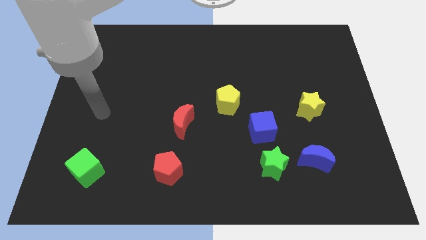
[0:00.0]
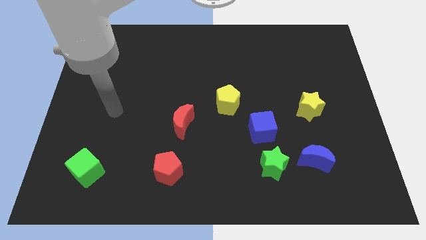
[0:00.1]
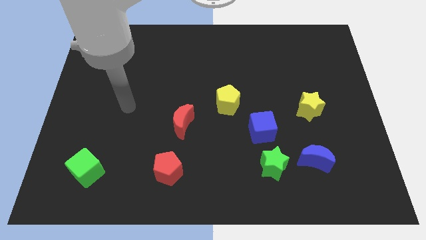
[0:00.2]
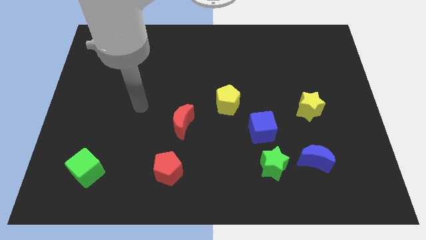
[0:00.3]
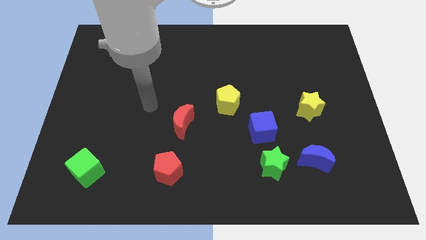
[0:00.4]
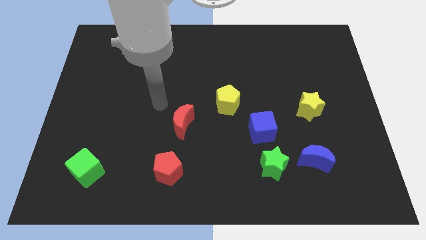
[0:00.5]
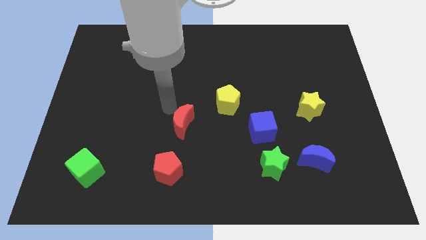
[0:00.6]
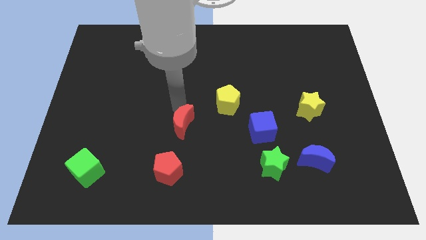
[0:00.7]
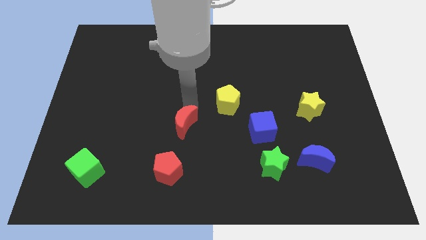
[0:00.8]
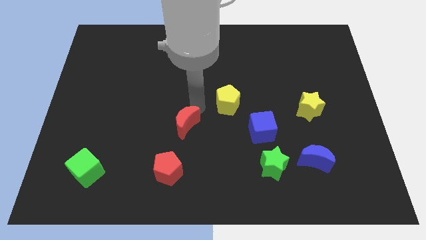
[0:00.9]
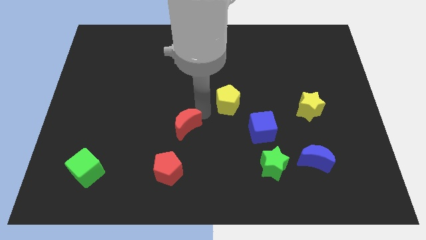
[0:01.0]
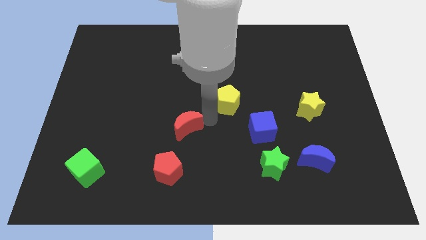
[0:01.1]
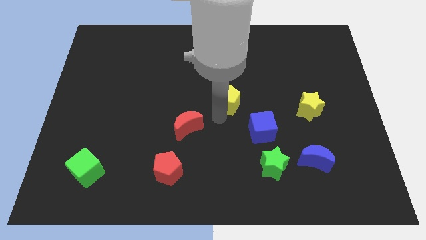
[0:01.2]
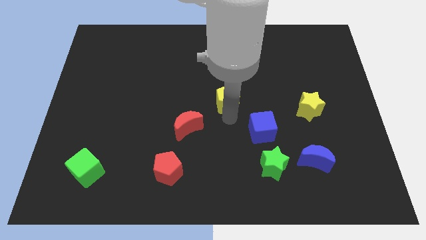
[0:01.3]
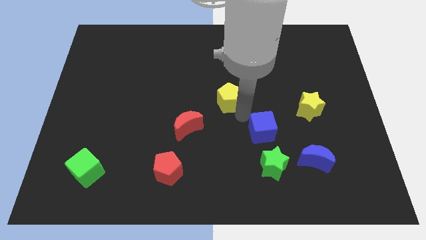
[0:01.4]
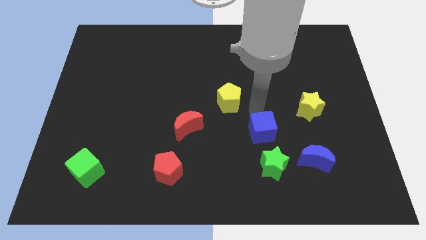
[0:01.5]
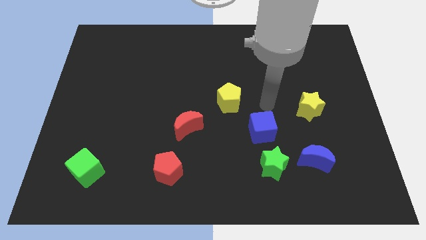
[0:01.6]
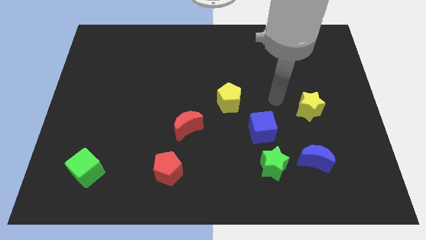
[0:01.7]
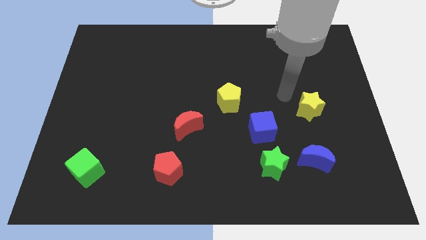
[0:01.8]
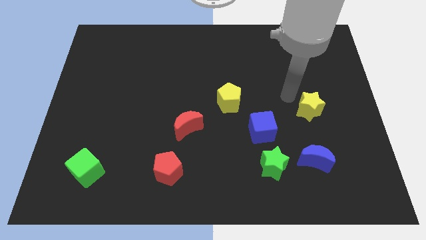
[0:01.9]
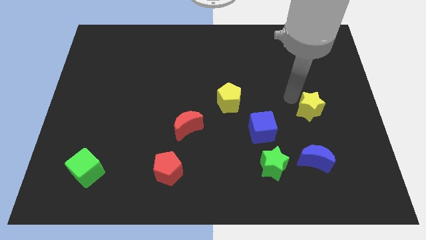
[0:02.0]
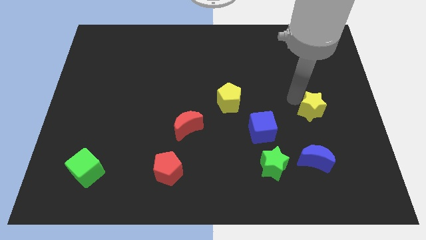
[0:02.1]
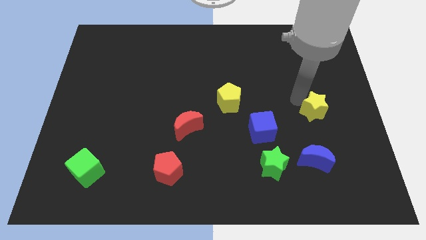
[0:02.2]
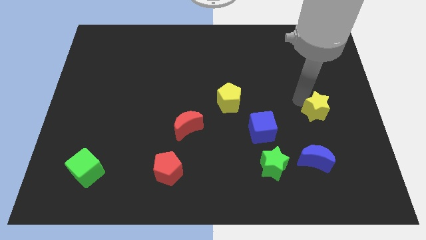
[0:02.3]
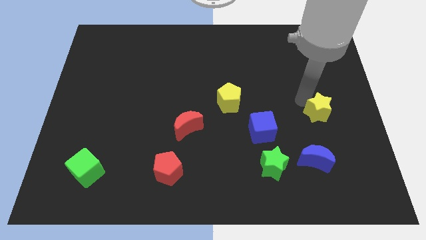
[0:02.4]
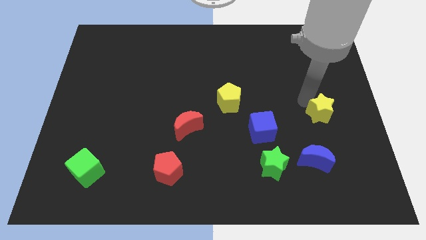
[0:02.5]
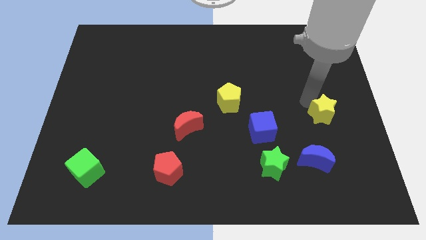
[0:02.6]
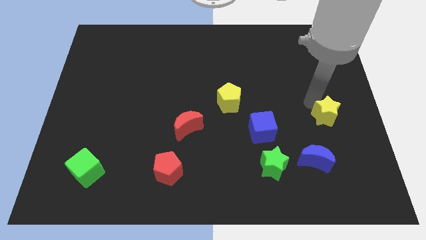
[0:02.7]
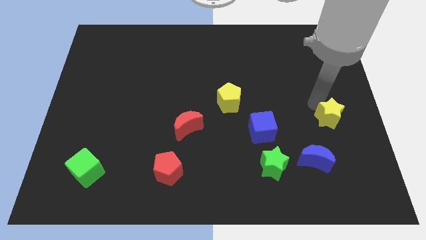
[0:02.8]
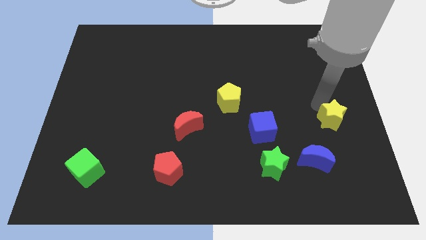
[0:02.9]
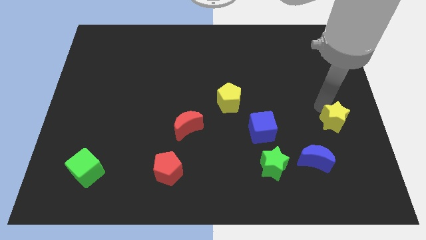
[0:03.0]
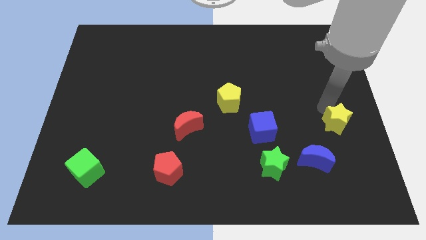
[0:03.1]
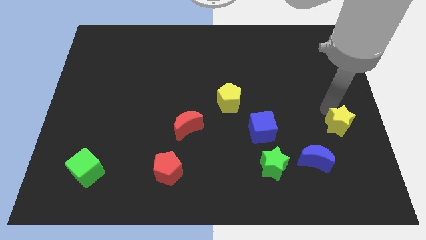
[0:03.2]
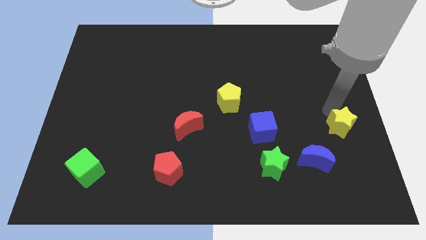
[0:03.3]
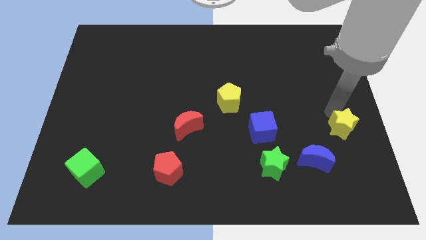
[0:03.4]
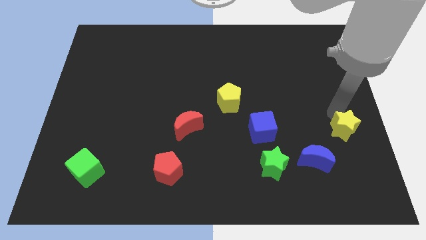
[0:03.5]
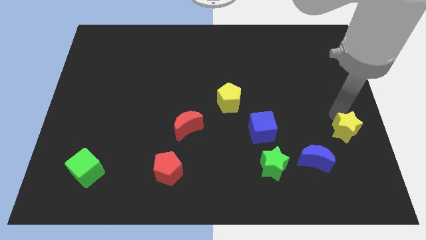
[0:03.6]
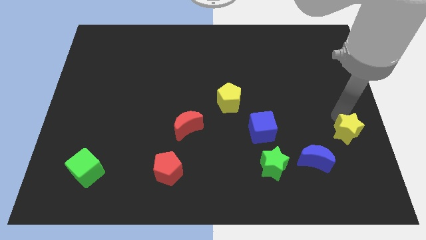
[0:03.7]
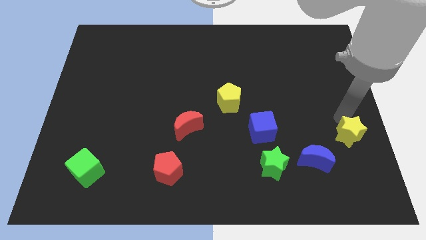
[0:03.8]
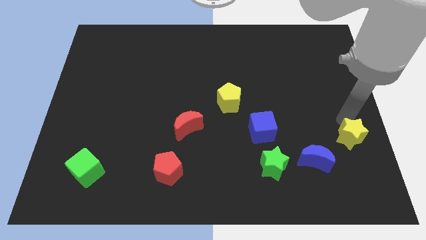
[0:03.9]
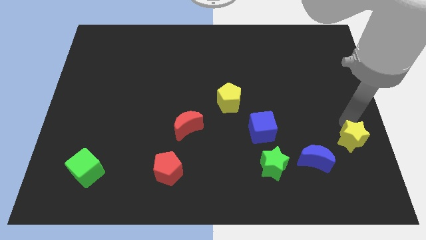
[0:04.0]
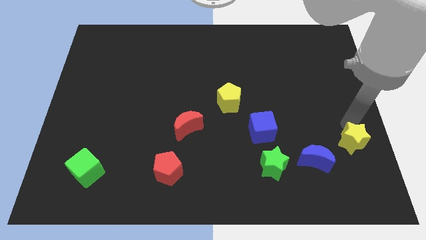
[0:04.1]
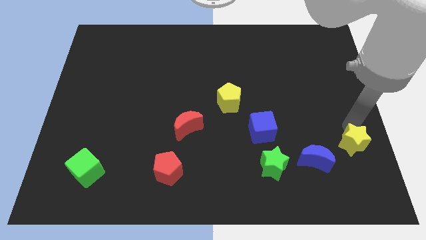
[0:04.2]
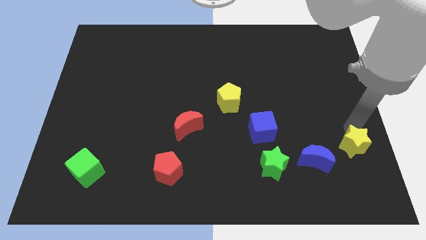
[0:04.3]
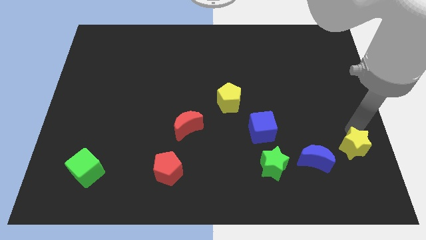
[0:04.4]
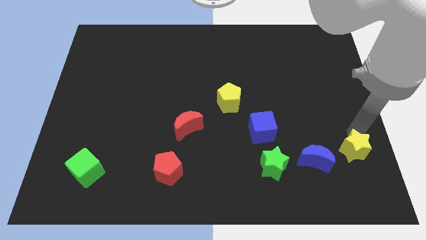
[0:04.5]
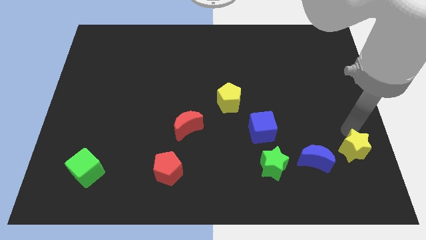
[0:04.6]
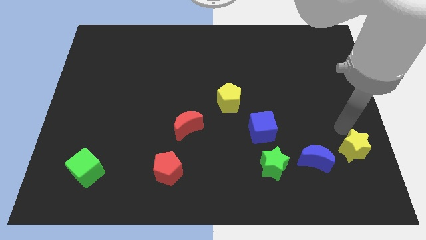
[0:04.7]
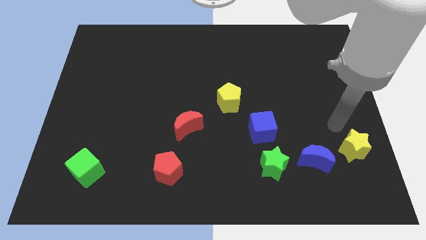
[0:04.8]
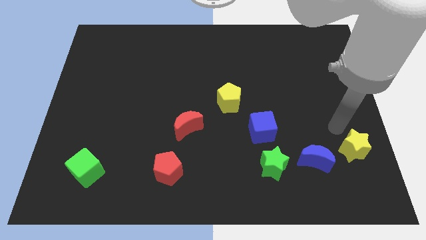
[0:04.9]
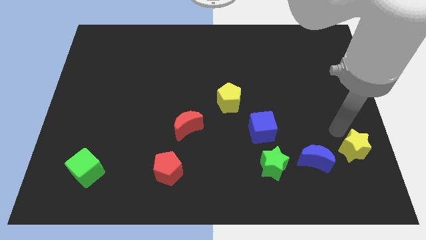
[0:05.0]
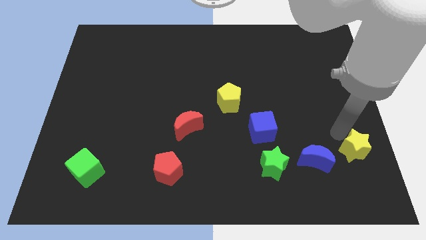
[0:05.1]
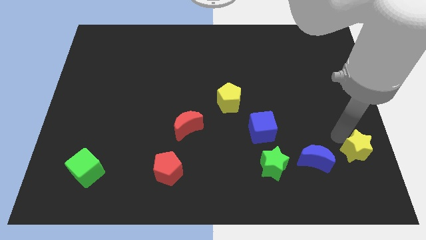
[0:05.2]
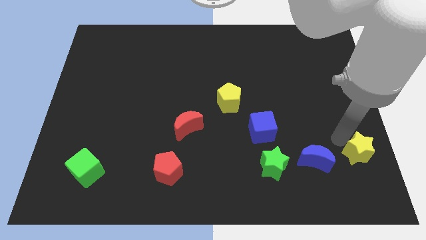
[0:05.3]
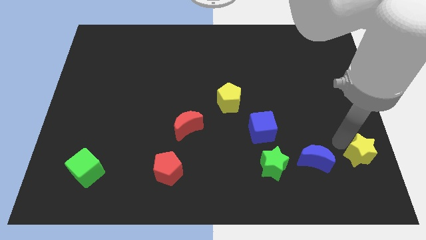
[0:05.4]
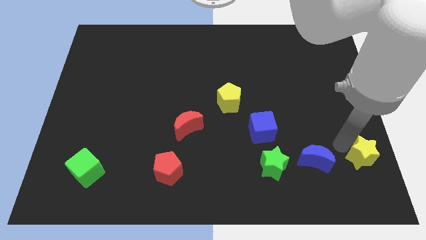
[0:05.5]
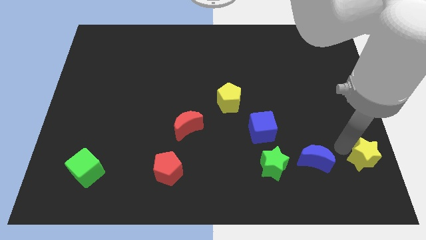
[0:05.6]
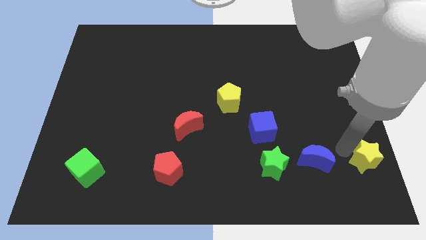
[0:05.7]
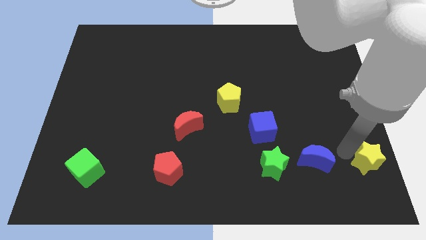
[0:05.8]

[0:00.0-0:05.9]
slide the yellow star to the bottom right

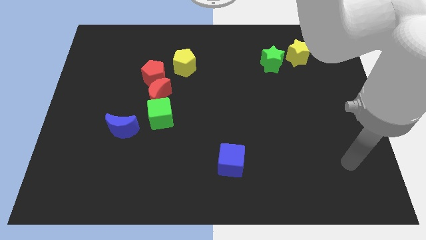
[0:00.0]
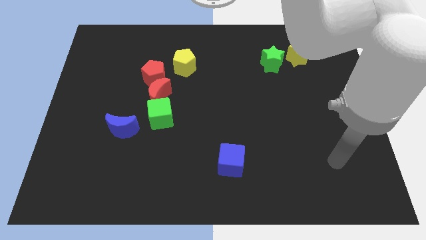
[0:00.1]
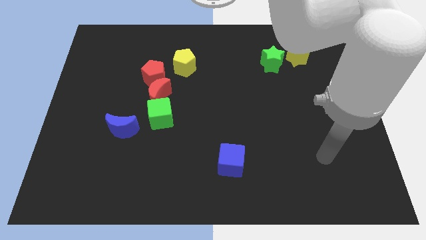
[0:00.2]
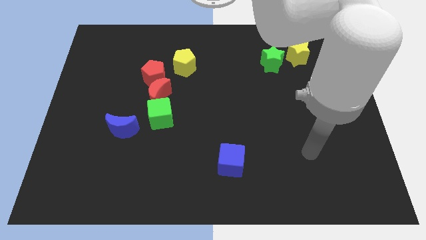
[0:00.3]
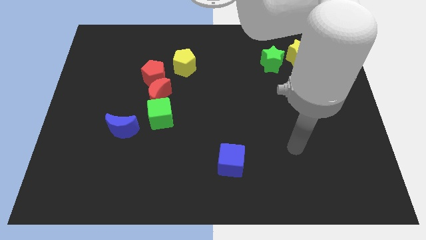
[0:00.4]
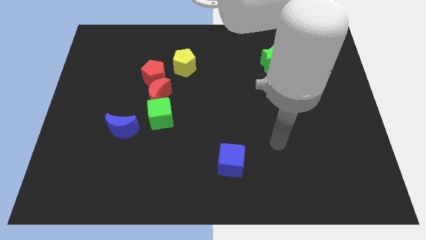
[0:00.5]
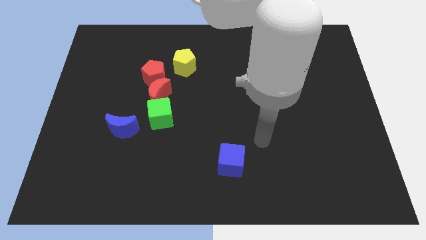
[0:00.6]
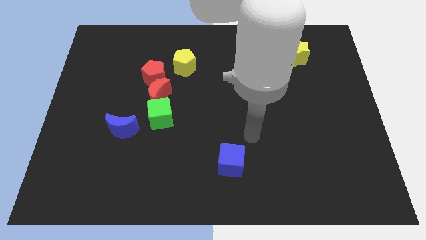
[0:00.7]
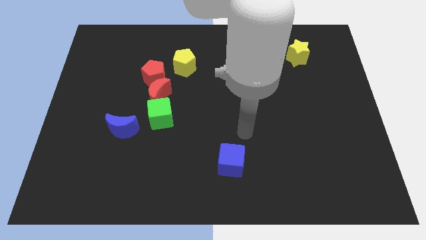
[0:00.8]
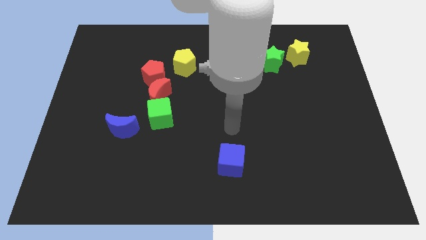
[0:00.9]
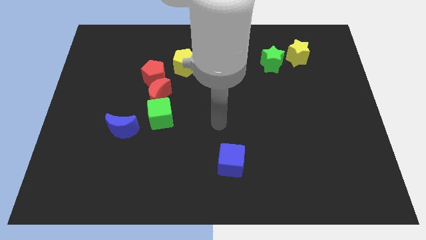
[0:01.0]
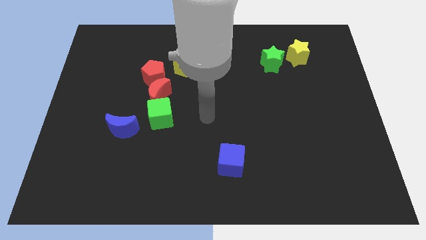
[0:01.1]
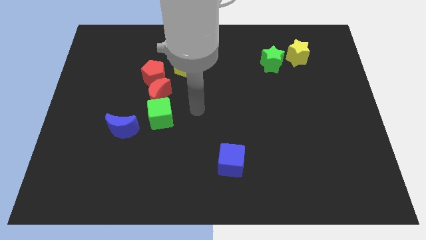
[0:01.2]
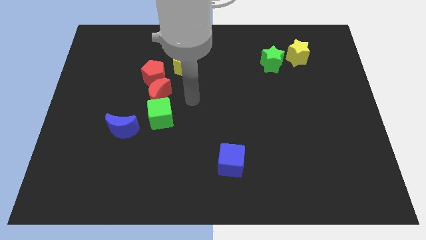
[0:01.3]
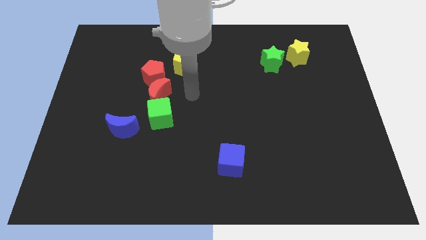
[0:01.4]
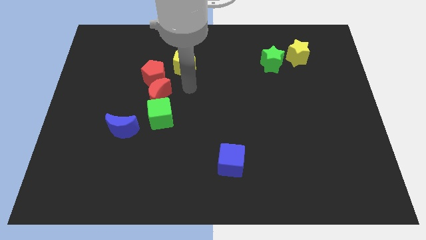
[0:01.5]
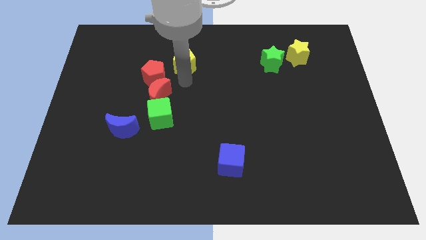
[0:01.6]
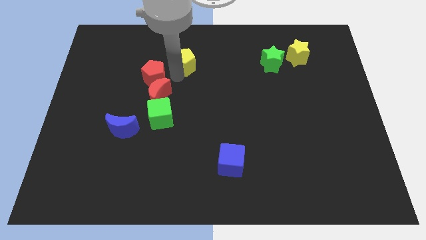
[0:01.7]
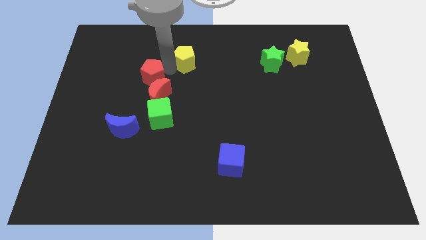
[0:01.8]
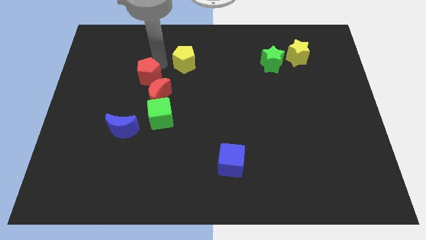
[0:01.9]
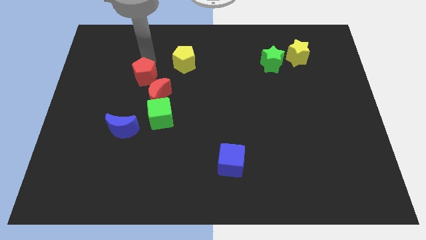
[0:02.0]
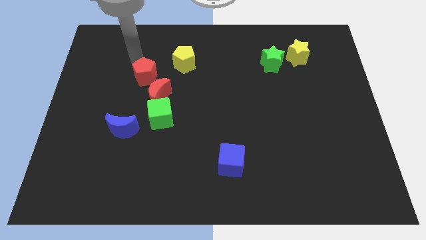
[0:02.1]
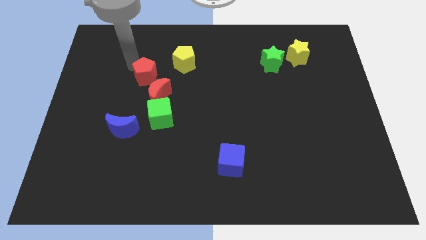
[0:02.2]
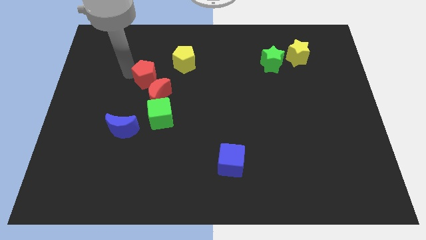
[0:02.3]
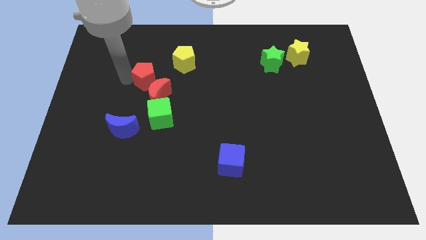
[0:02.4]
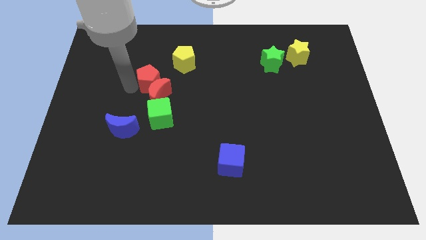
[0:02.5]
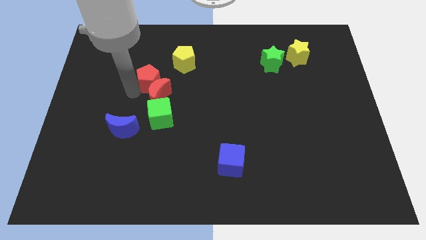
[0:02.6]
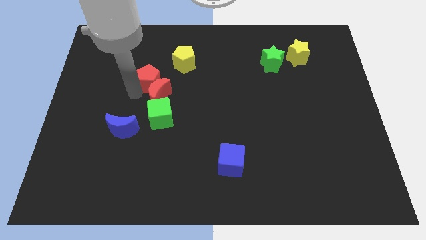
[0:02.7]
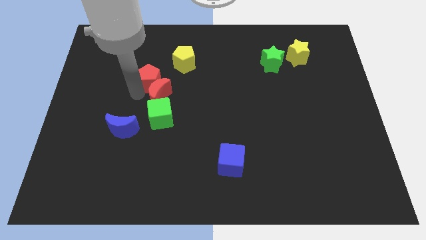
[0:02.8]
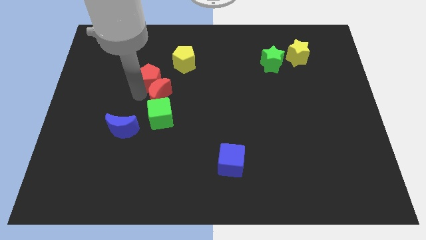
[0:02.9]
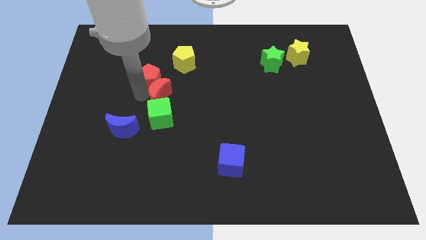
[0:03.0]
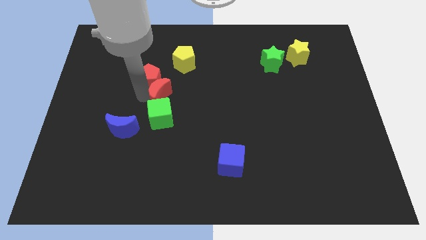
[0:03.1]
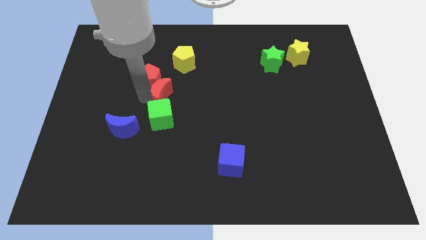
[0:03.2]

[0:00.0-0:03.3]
push the red moon to the center
